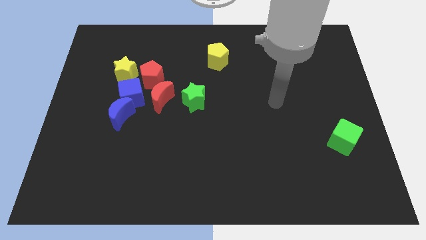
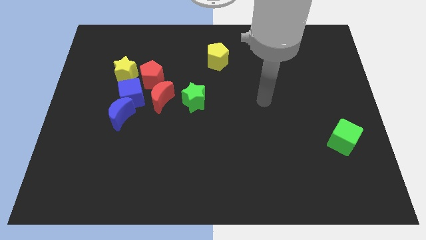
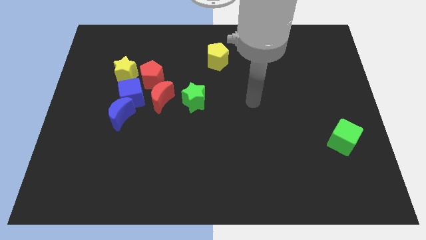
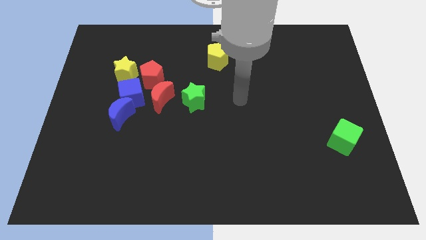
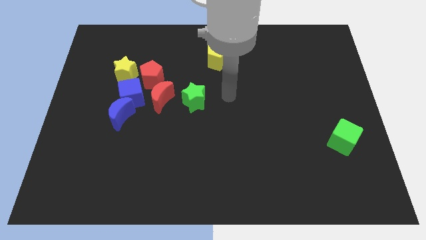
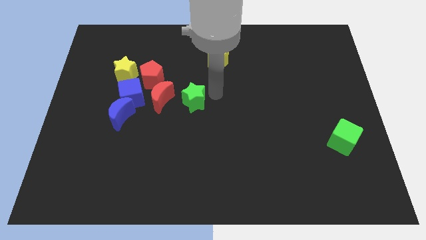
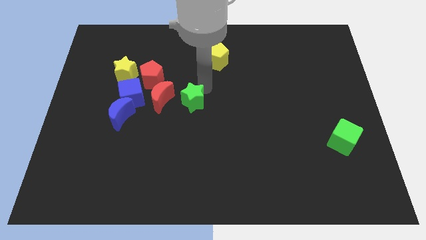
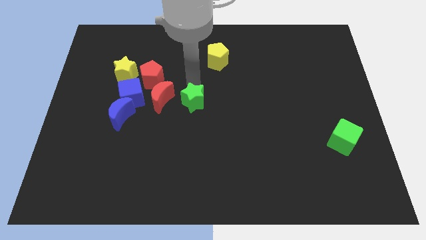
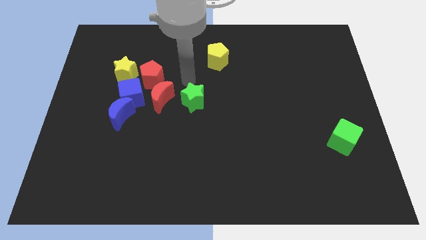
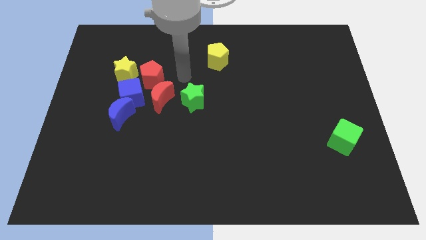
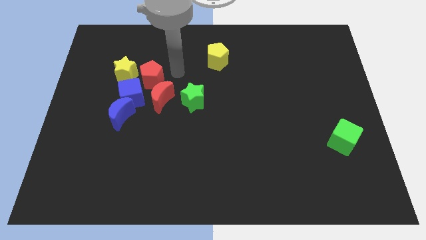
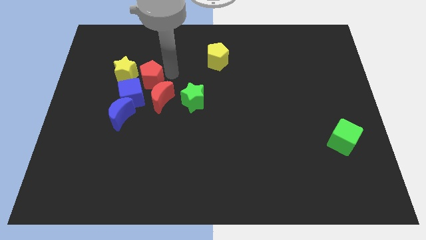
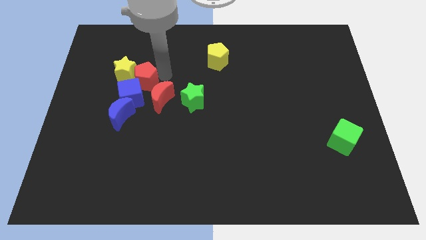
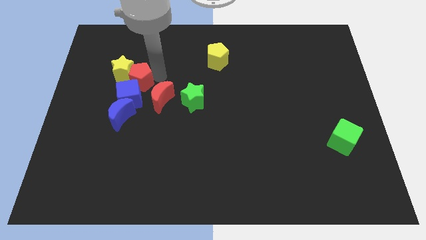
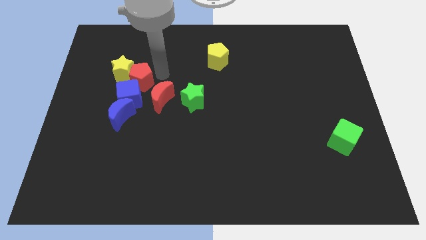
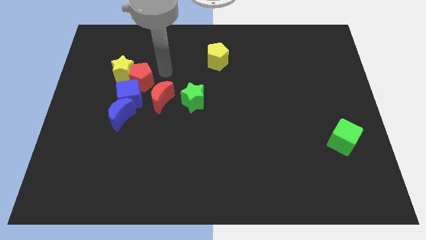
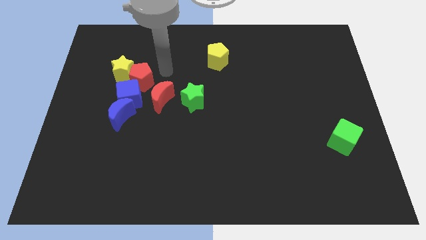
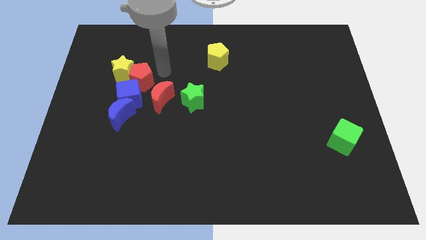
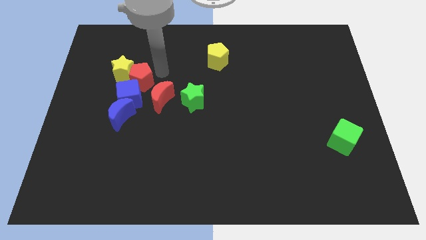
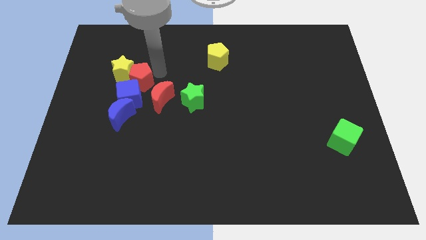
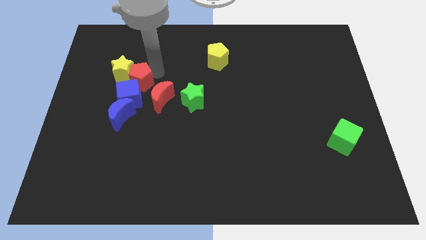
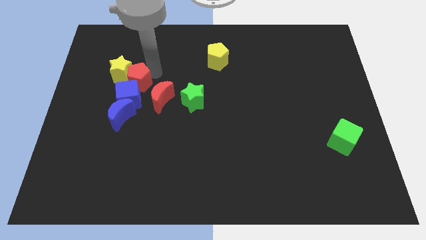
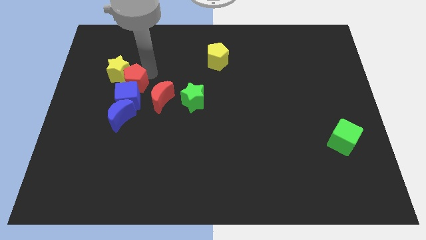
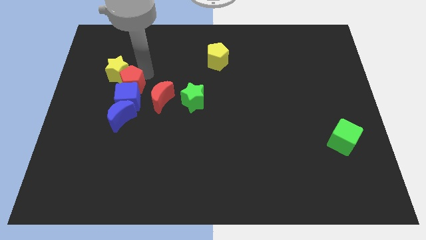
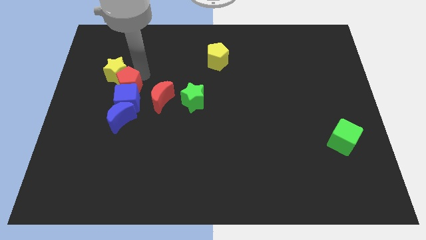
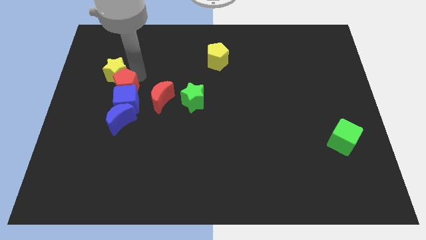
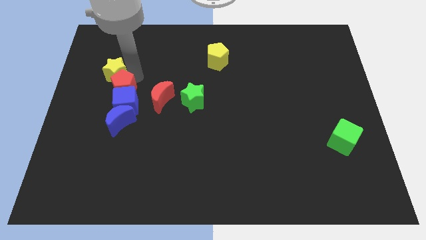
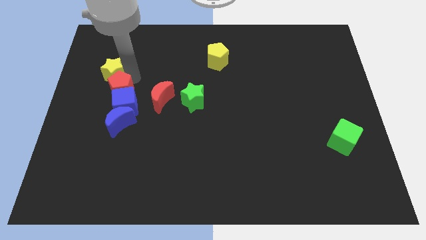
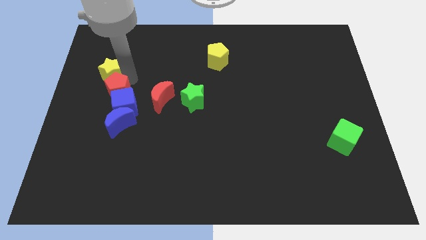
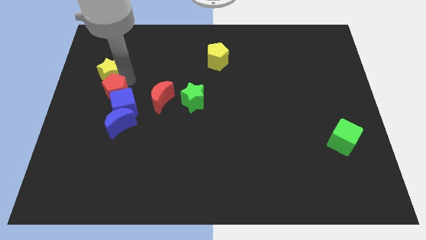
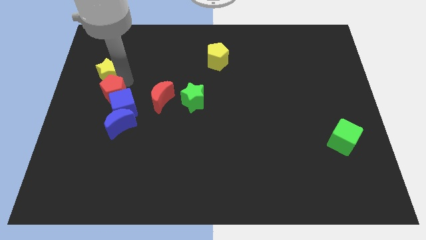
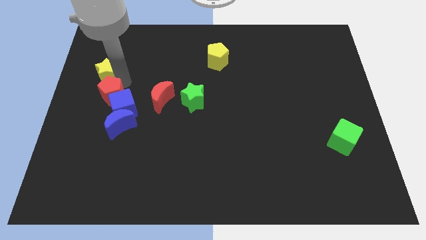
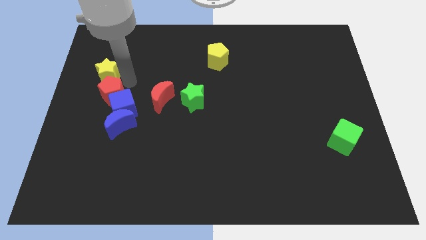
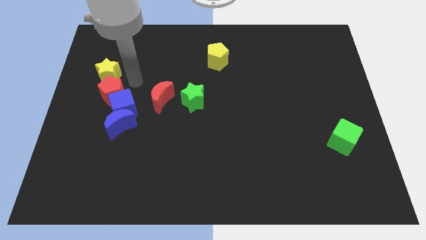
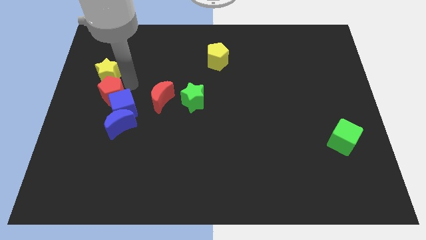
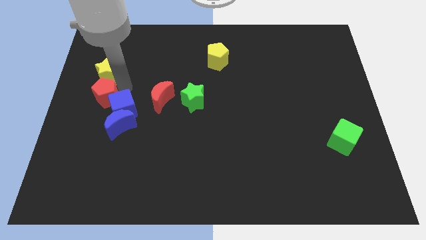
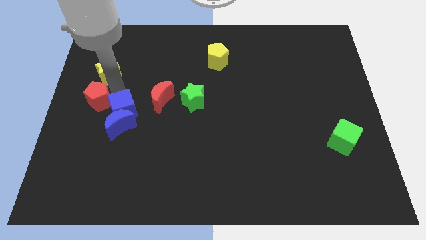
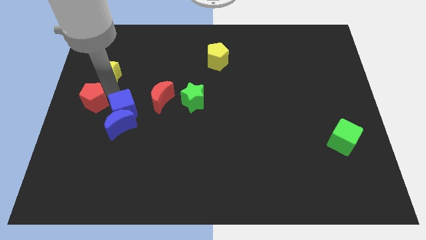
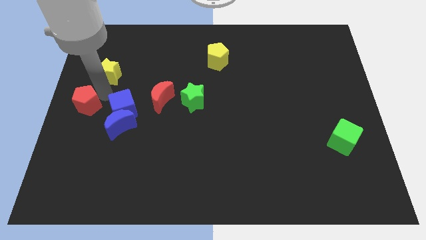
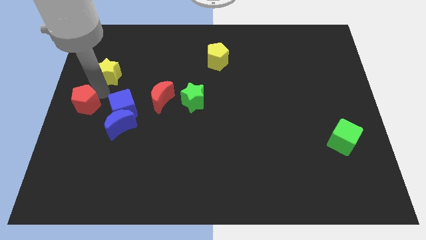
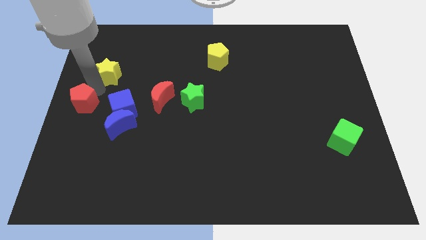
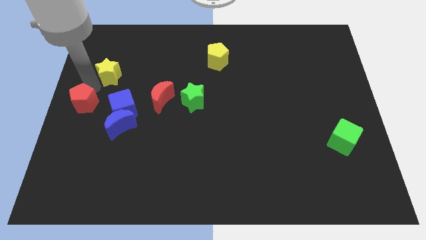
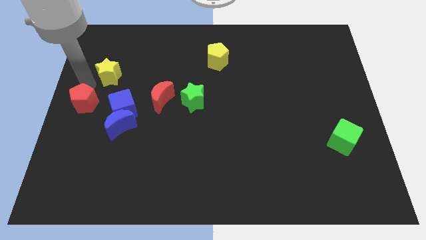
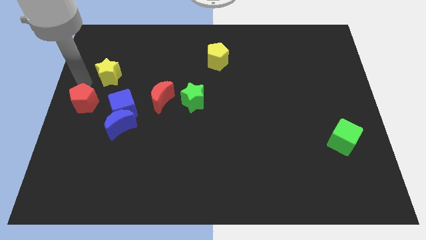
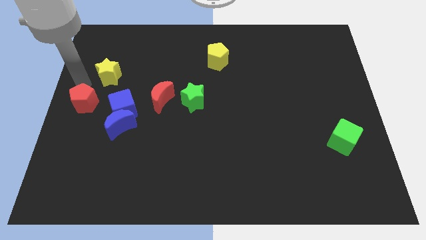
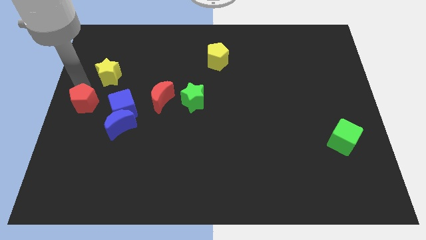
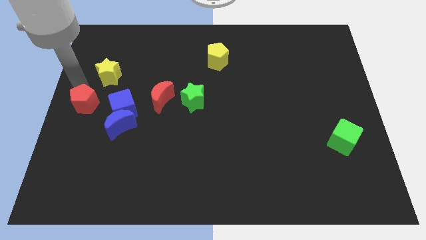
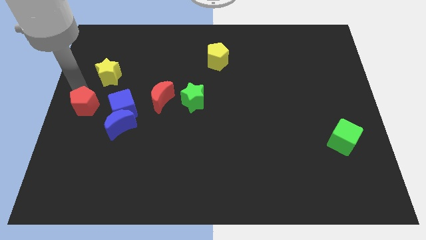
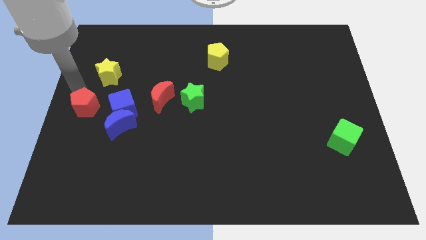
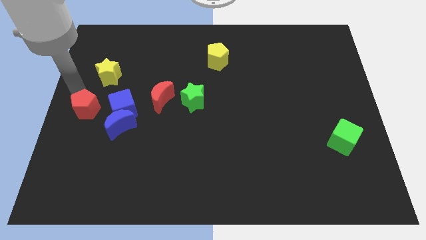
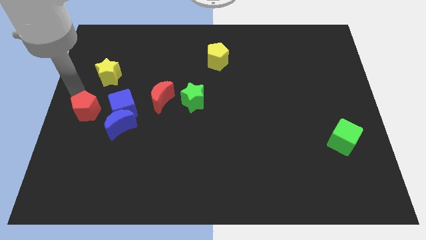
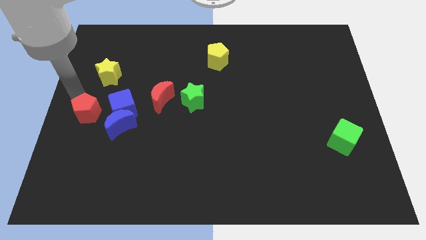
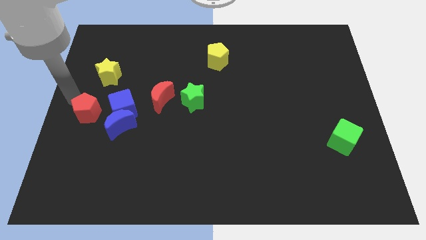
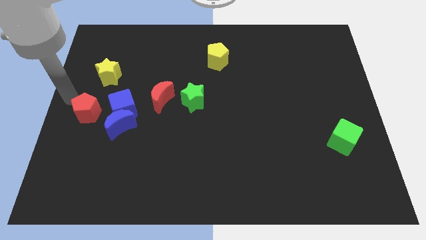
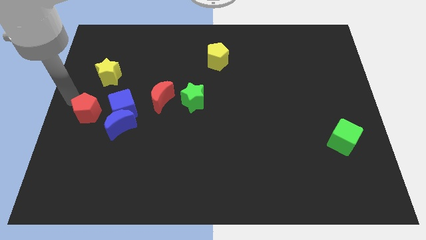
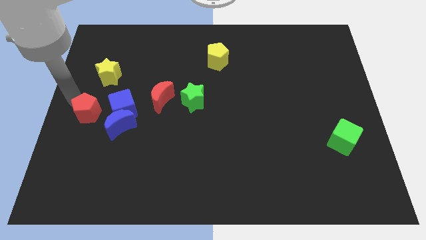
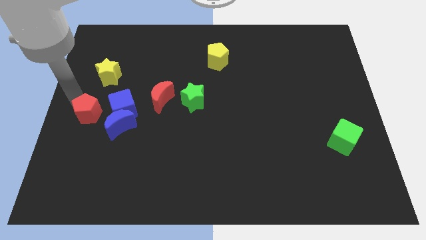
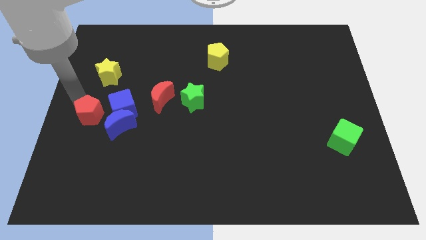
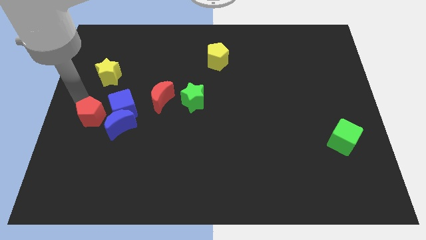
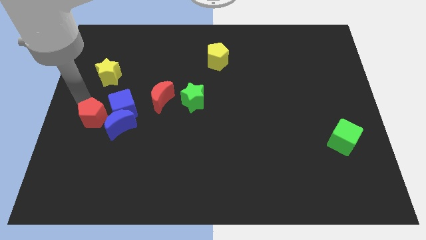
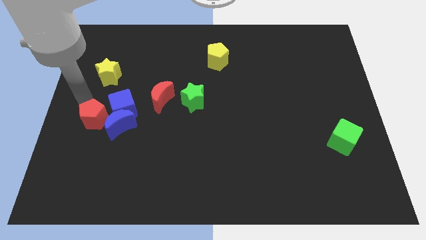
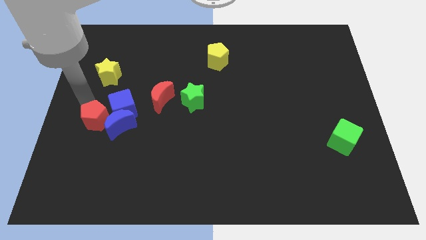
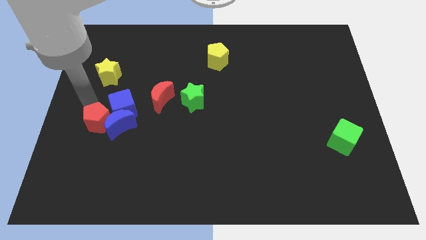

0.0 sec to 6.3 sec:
move the red pentagon down a little bit

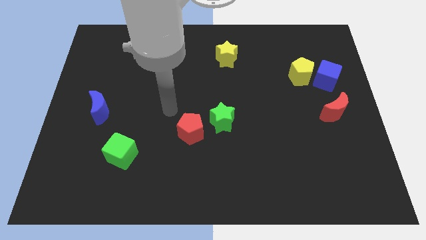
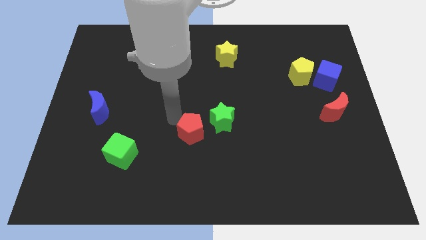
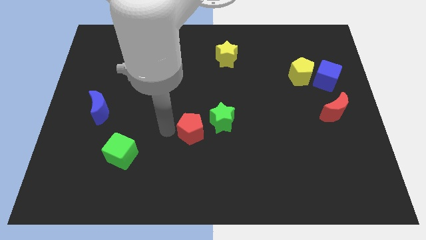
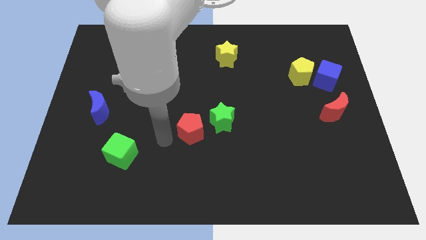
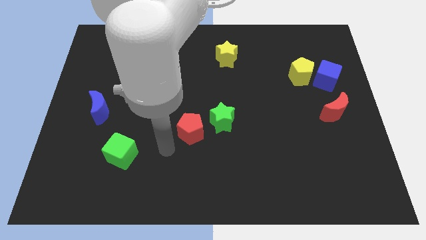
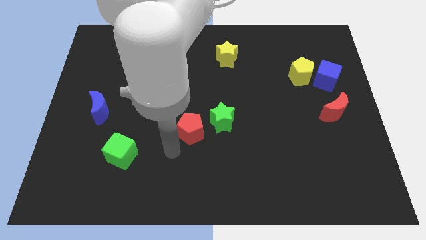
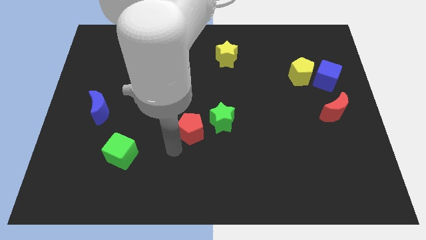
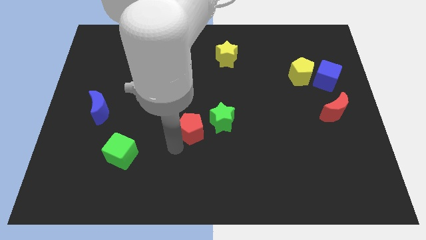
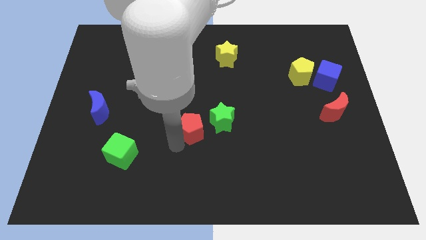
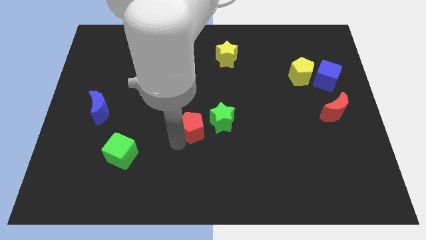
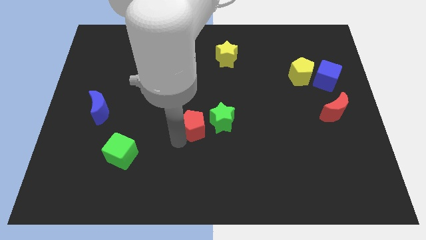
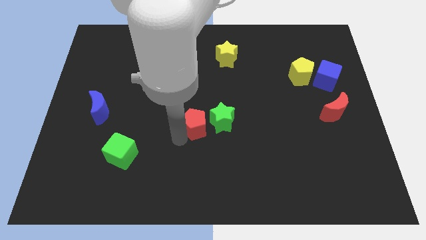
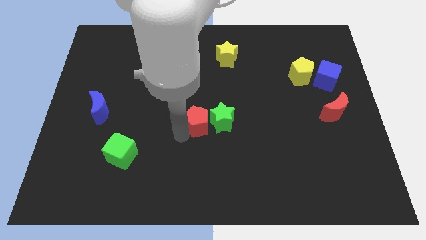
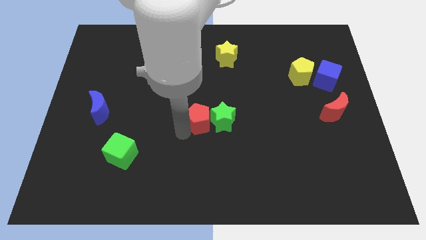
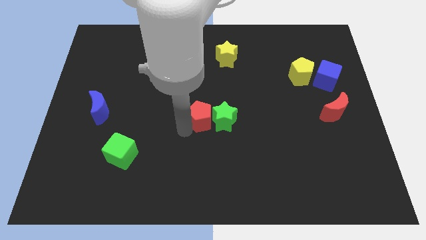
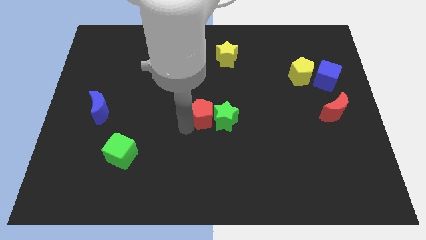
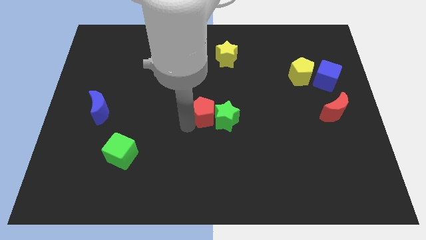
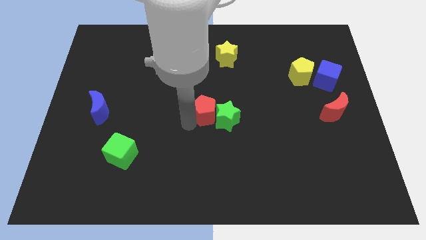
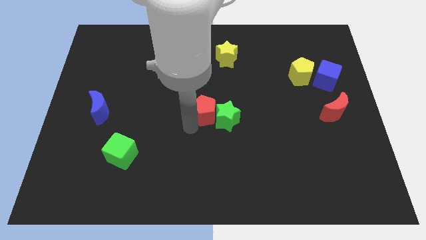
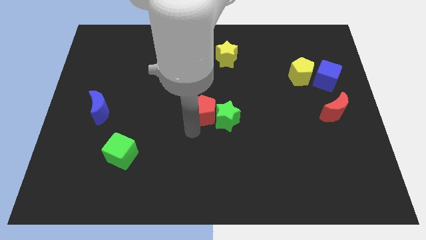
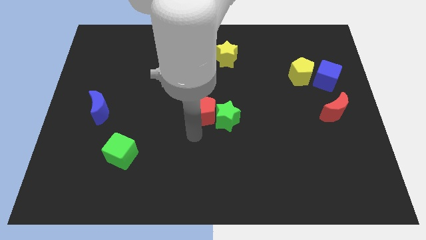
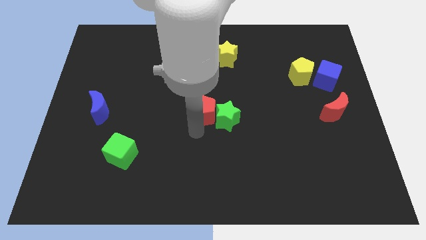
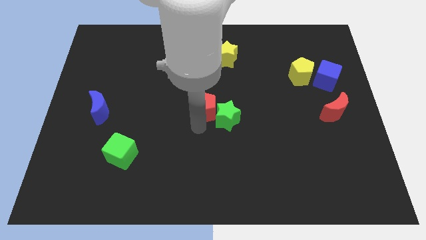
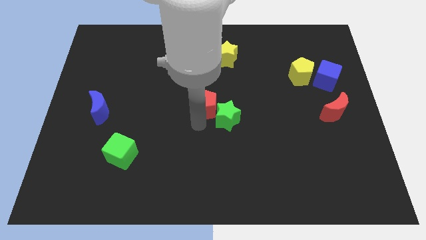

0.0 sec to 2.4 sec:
slightly push the red pentagon upwards and to the right
